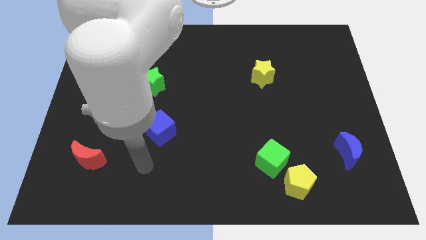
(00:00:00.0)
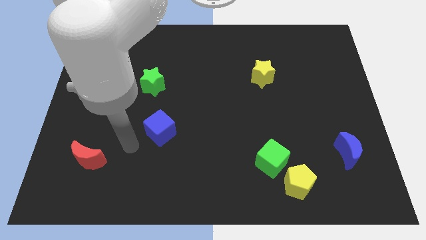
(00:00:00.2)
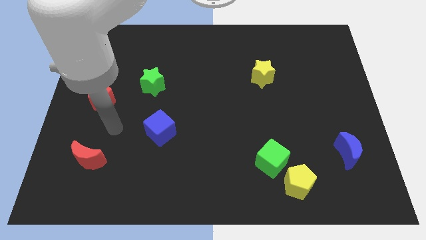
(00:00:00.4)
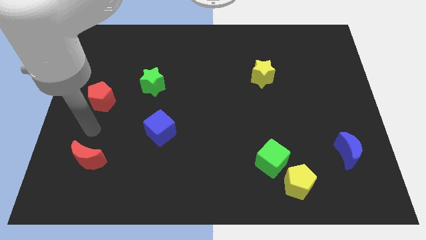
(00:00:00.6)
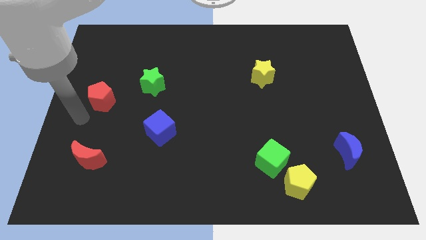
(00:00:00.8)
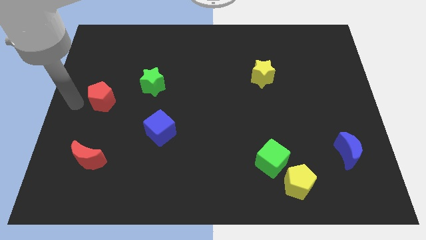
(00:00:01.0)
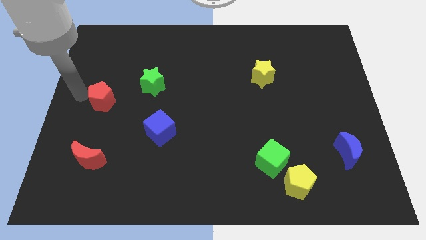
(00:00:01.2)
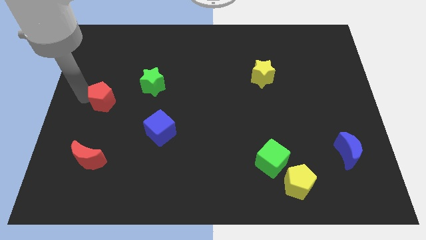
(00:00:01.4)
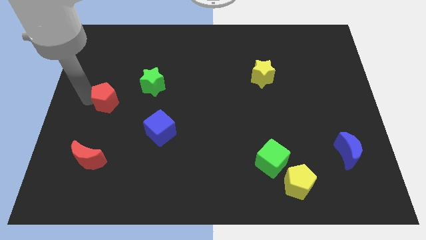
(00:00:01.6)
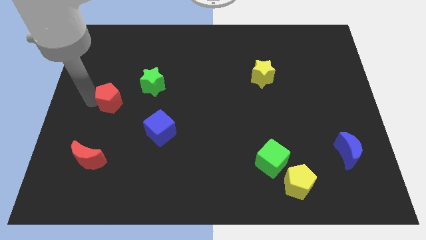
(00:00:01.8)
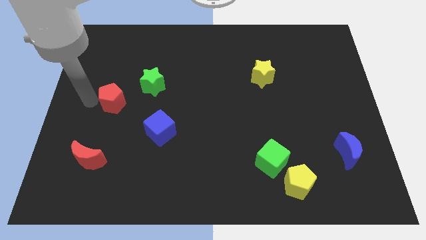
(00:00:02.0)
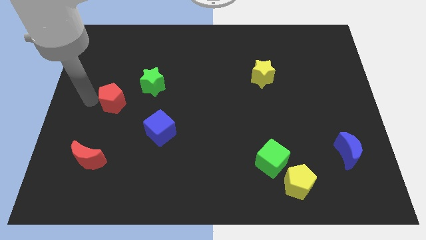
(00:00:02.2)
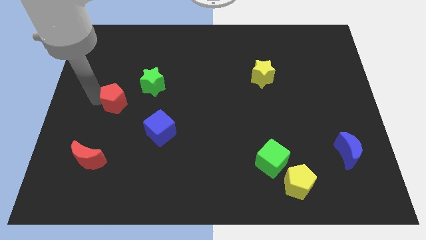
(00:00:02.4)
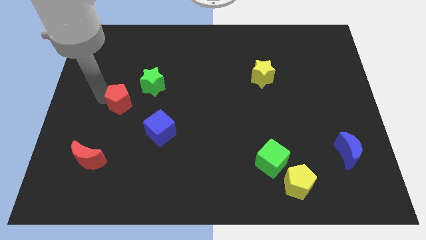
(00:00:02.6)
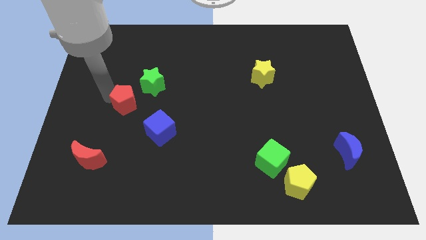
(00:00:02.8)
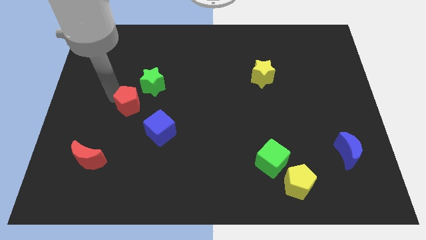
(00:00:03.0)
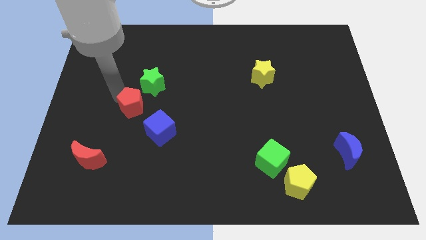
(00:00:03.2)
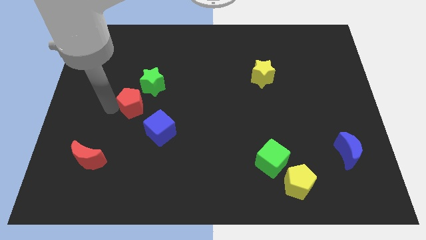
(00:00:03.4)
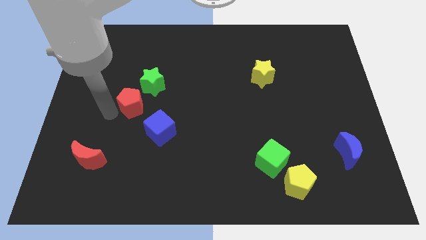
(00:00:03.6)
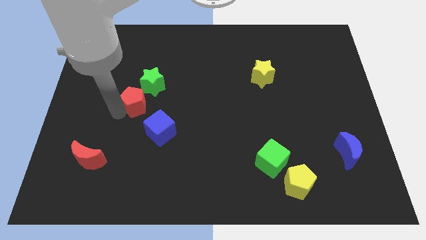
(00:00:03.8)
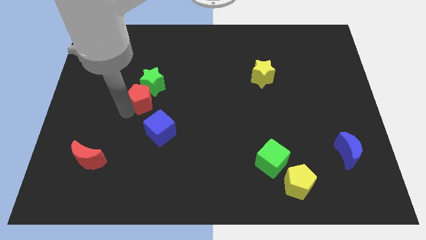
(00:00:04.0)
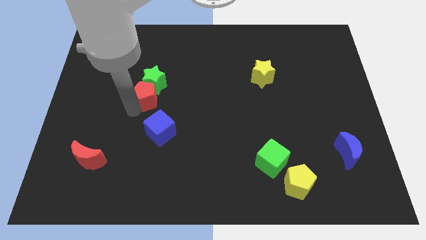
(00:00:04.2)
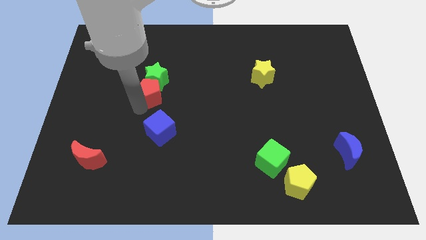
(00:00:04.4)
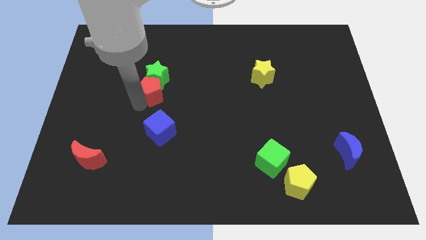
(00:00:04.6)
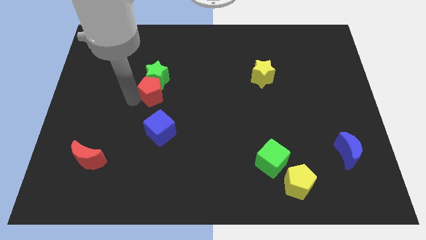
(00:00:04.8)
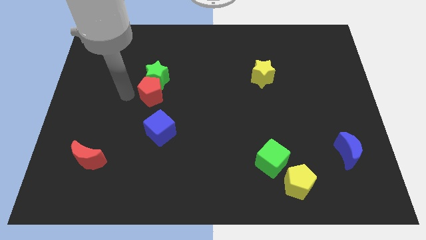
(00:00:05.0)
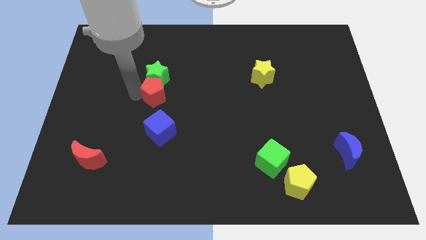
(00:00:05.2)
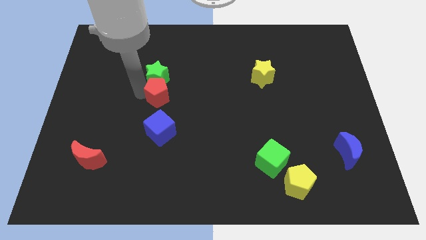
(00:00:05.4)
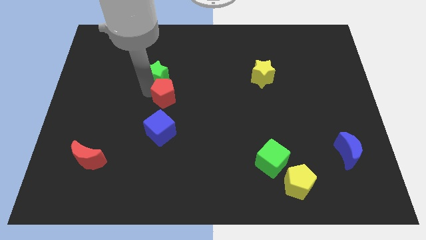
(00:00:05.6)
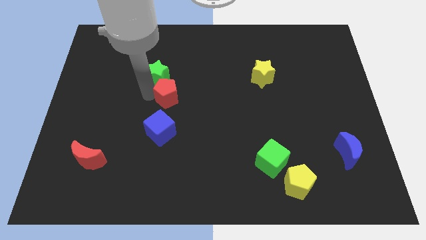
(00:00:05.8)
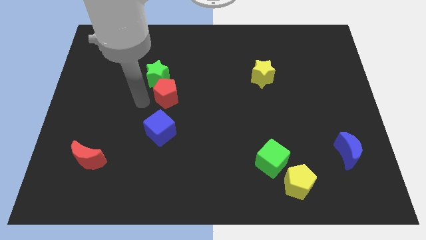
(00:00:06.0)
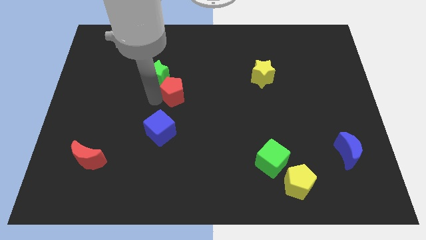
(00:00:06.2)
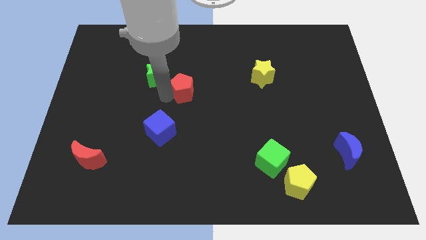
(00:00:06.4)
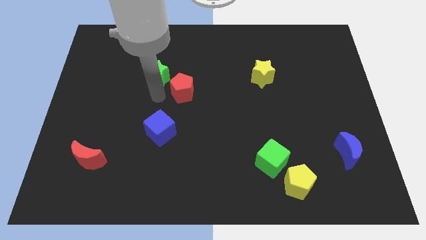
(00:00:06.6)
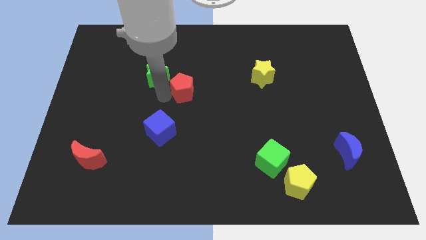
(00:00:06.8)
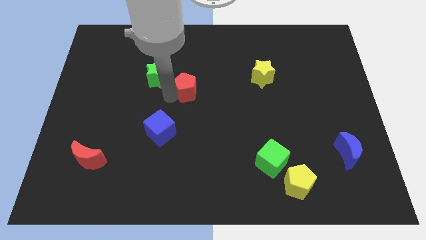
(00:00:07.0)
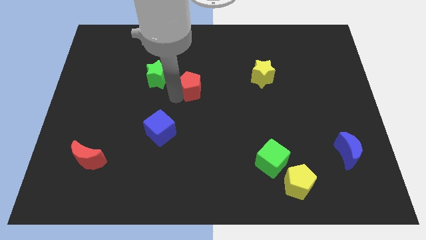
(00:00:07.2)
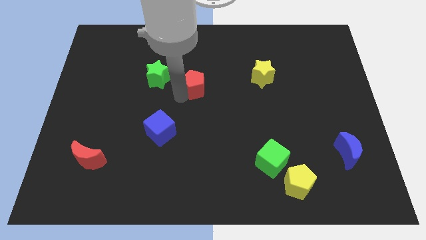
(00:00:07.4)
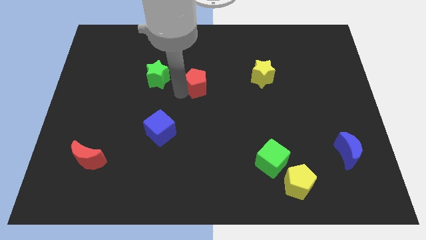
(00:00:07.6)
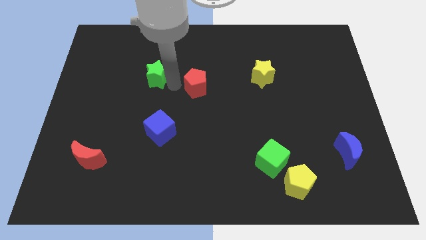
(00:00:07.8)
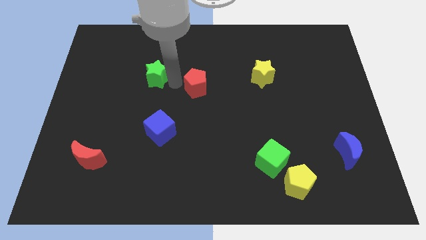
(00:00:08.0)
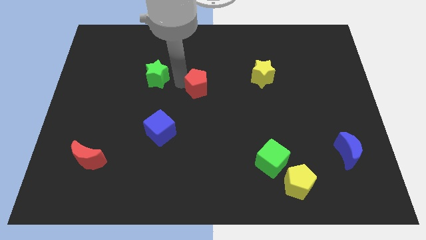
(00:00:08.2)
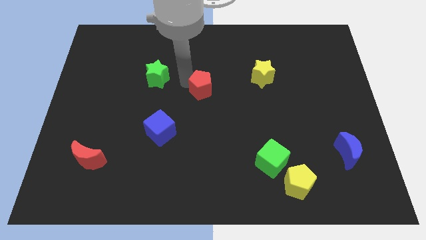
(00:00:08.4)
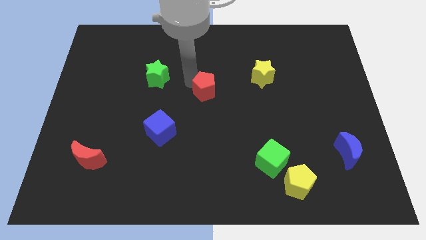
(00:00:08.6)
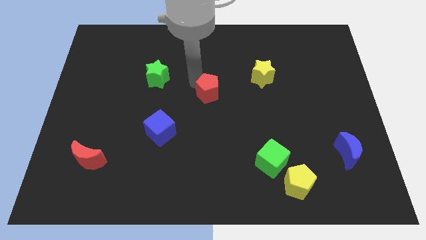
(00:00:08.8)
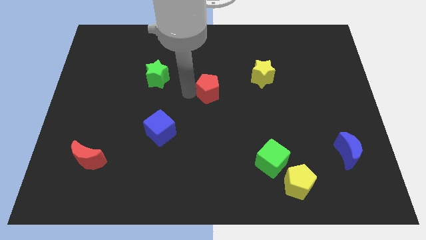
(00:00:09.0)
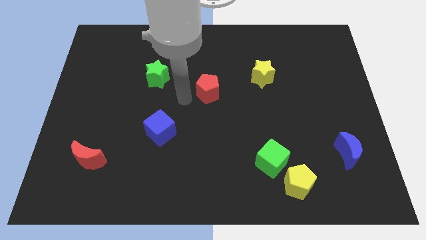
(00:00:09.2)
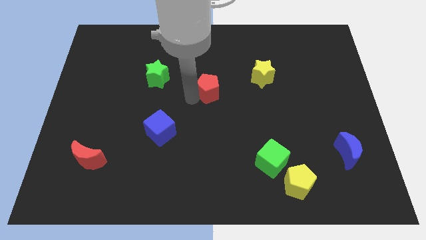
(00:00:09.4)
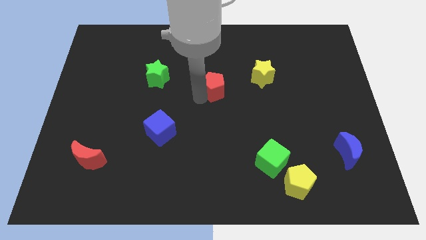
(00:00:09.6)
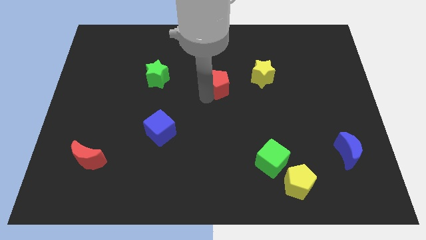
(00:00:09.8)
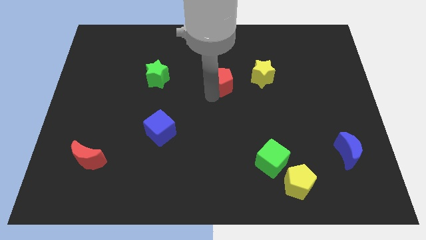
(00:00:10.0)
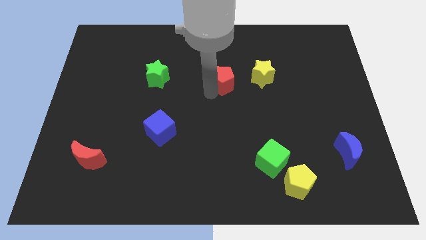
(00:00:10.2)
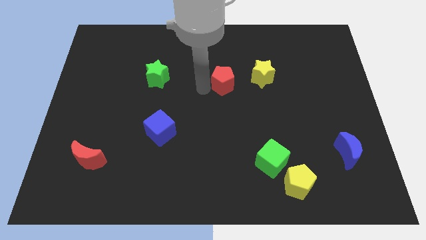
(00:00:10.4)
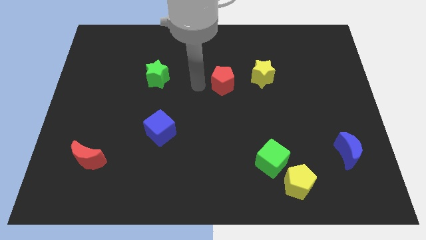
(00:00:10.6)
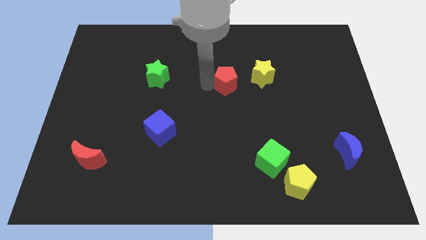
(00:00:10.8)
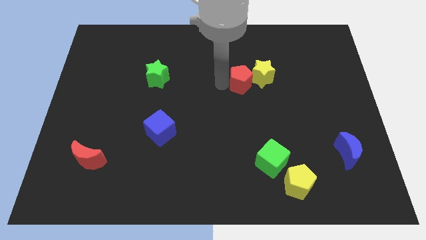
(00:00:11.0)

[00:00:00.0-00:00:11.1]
move the red pentagon next to the yellow star

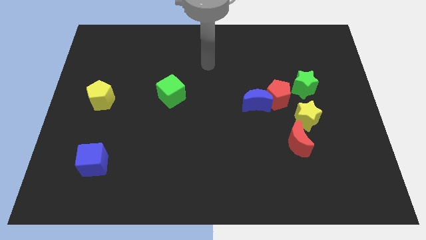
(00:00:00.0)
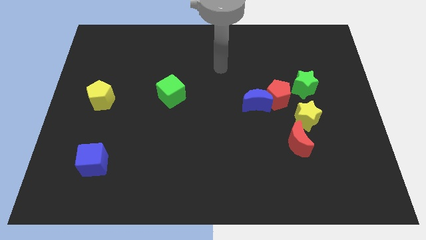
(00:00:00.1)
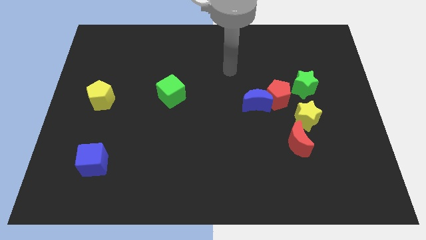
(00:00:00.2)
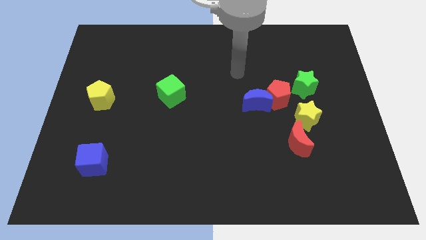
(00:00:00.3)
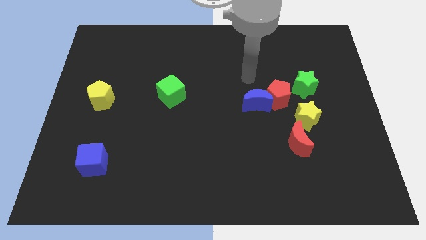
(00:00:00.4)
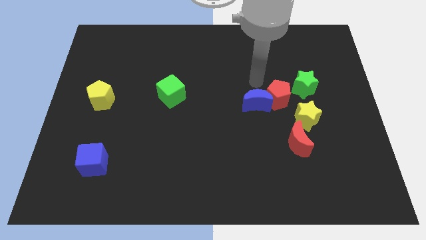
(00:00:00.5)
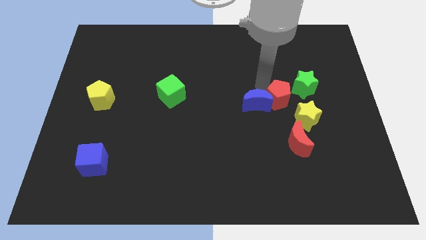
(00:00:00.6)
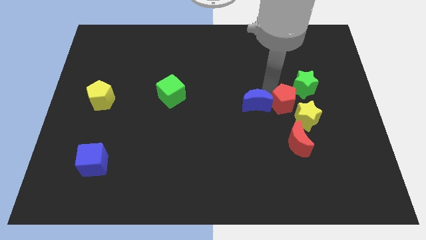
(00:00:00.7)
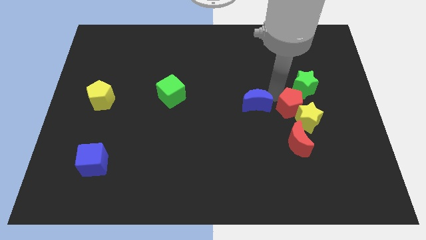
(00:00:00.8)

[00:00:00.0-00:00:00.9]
push the red pentagon to the yellow star
